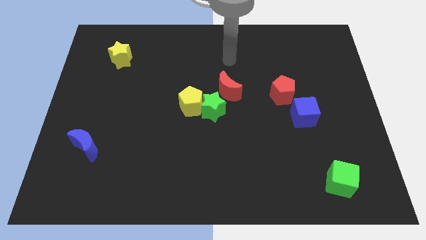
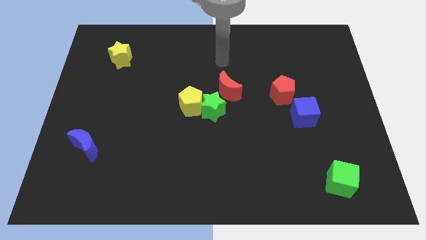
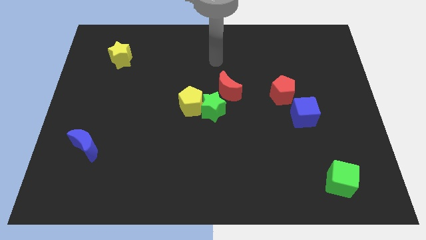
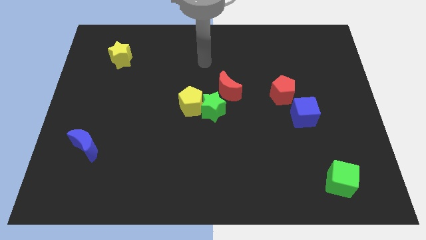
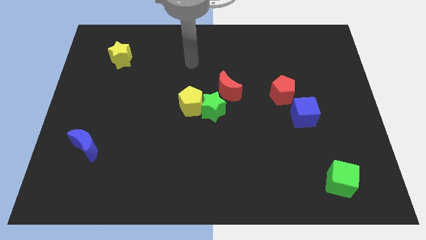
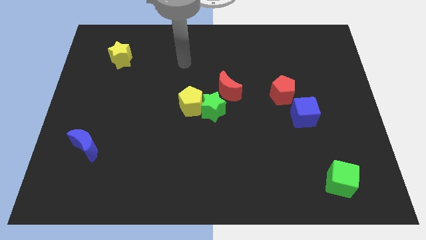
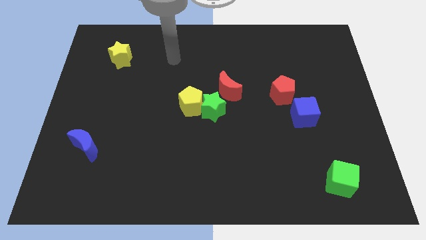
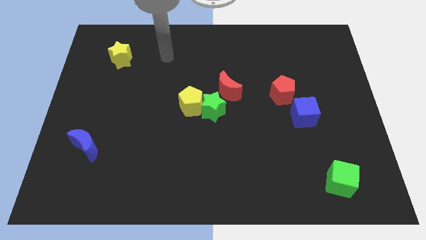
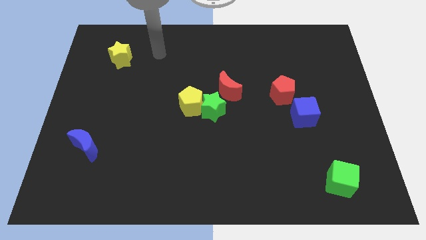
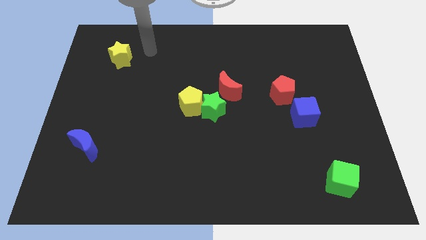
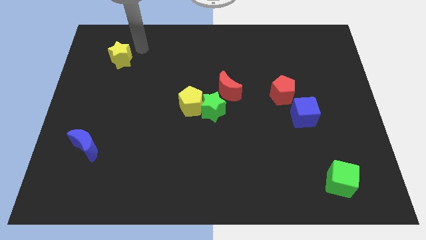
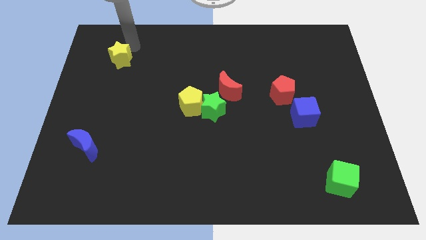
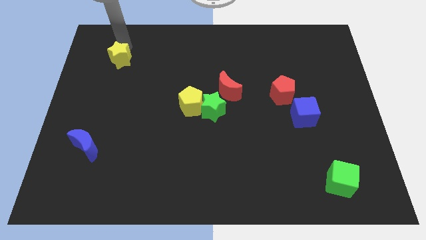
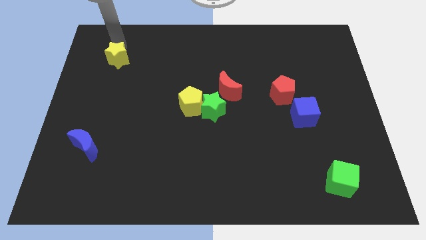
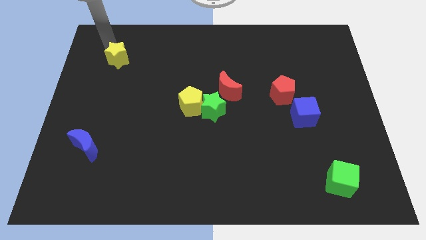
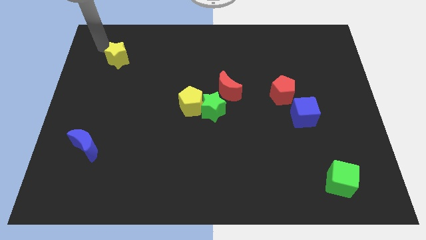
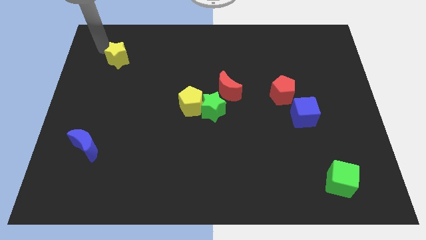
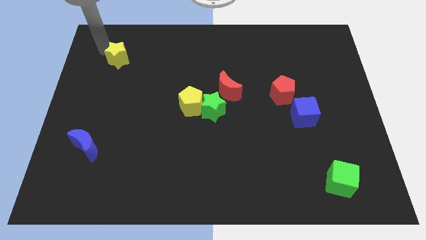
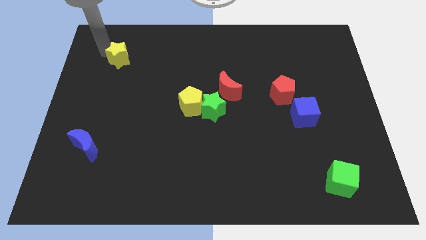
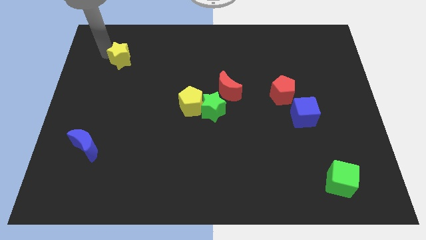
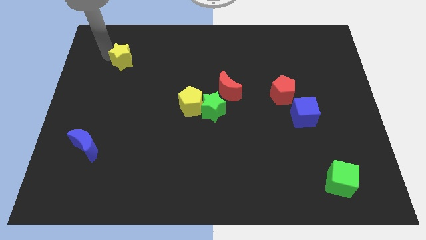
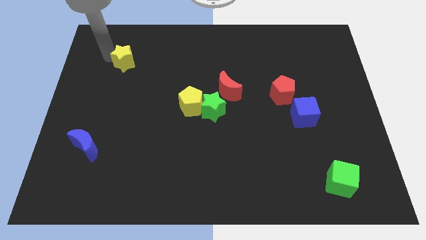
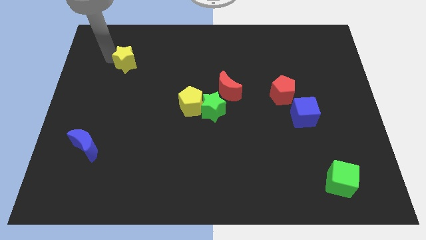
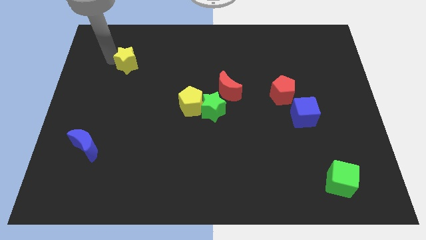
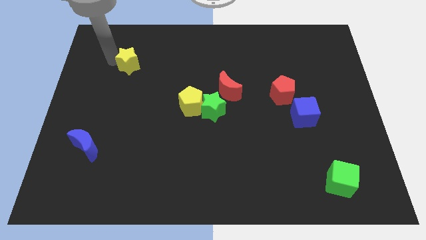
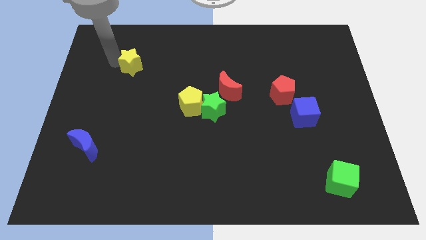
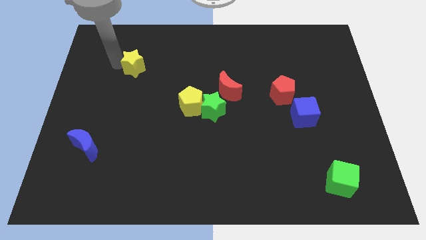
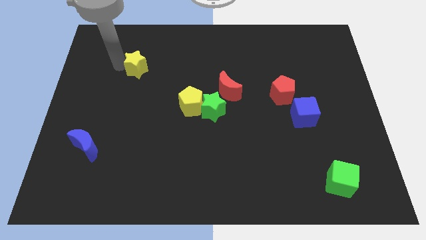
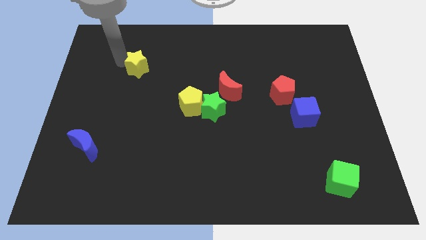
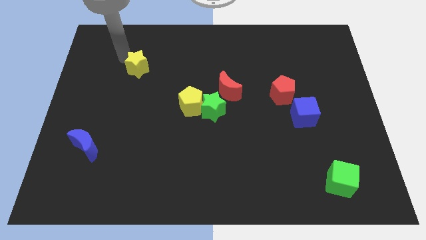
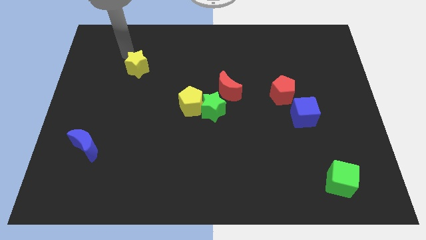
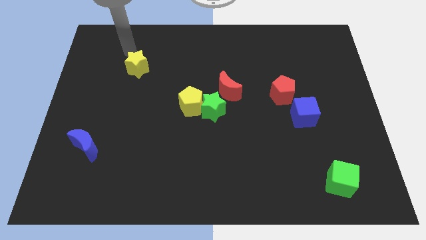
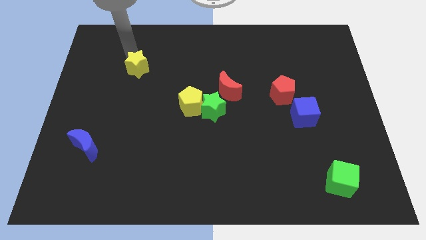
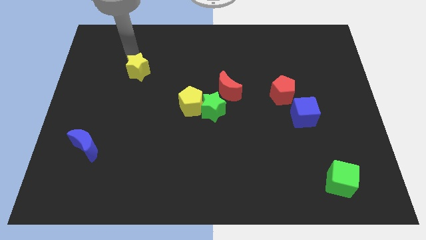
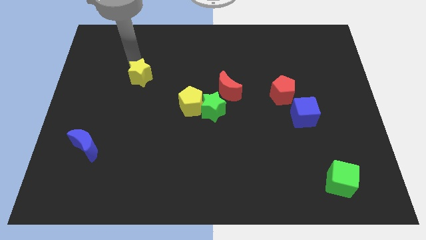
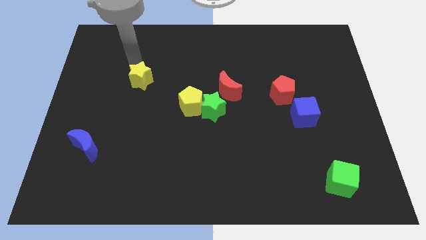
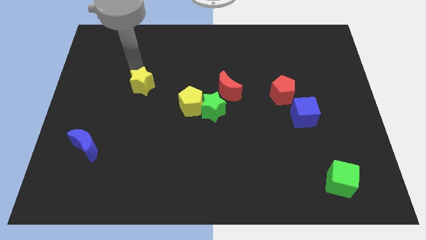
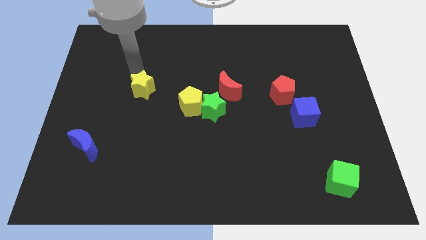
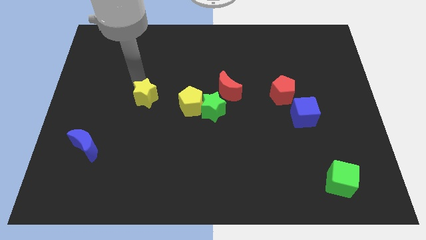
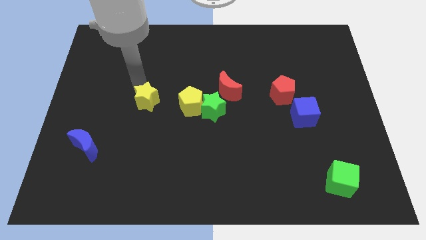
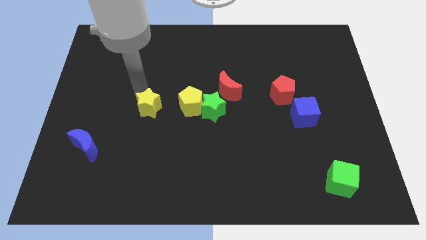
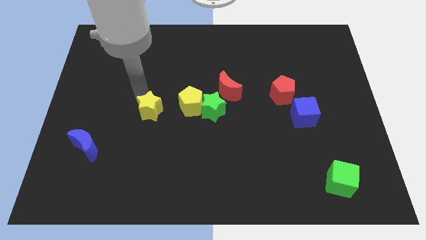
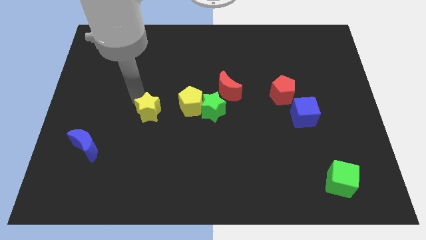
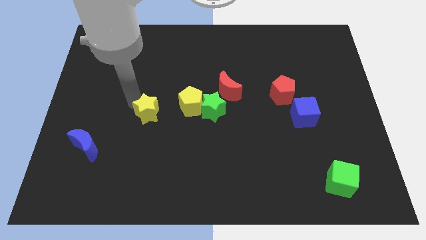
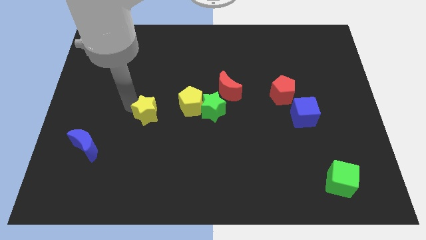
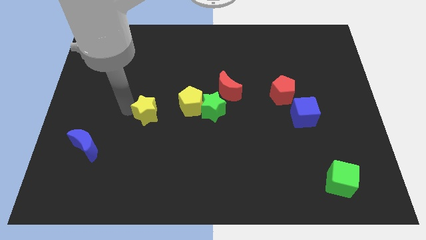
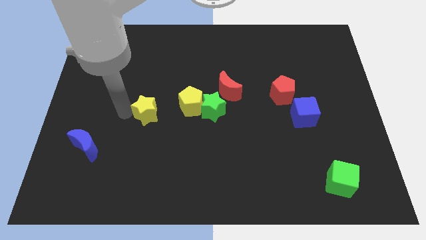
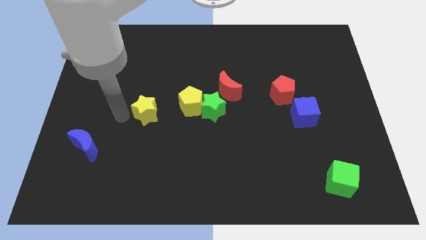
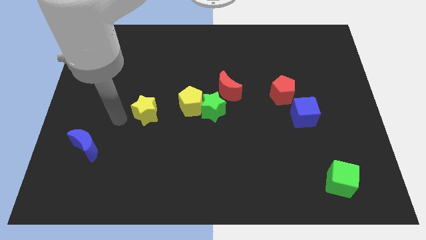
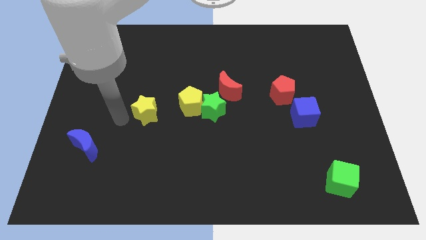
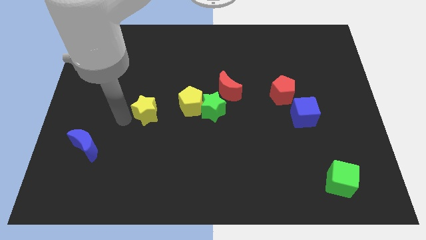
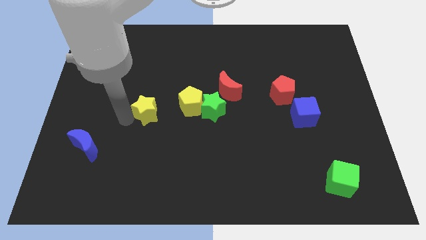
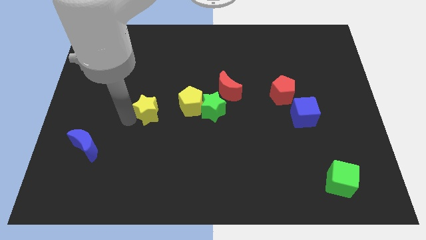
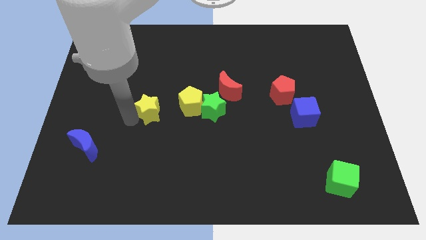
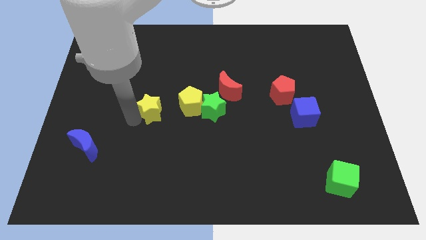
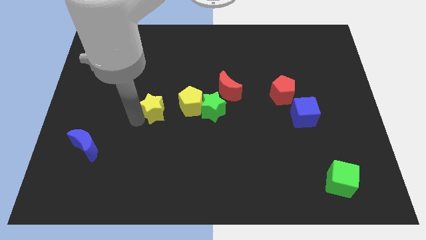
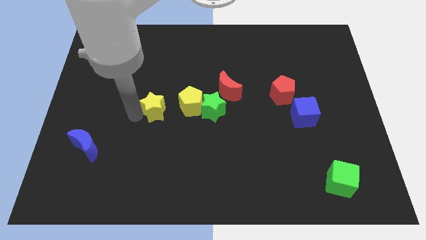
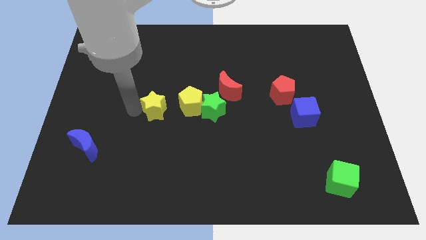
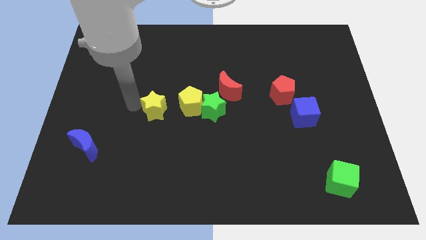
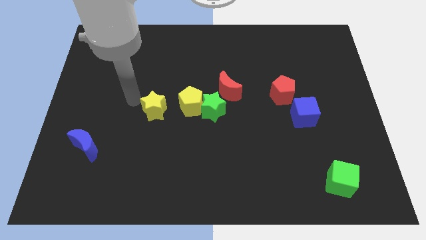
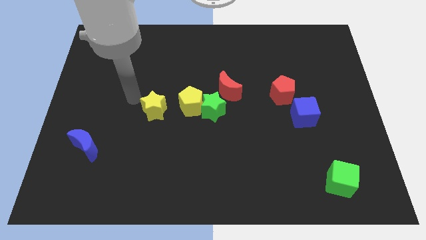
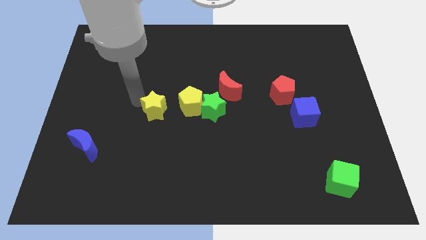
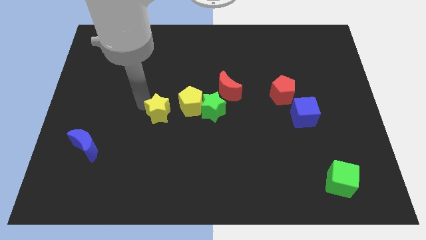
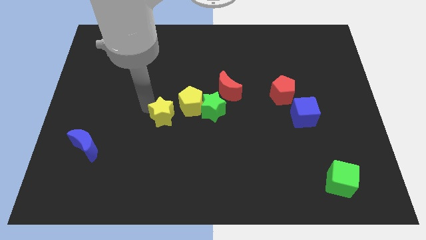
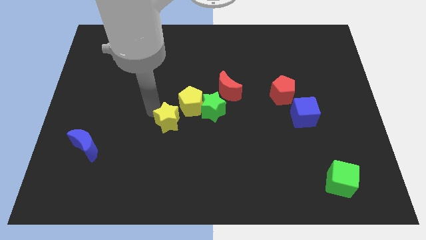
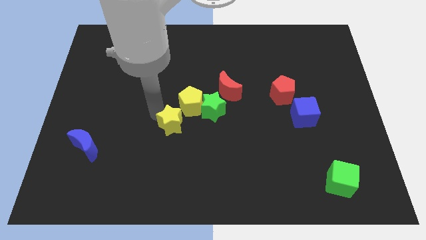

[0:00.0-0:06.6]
push the yellow star to the bottom of the yellow pentagon

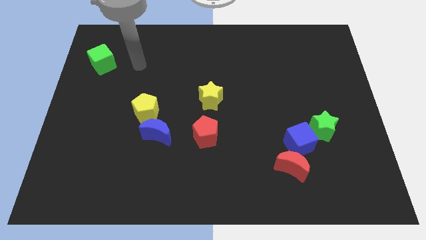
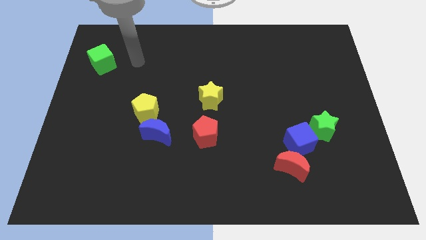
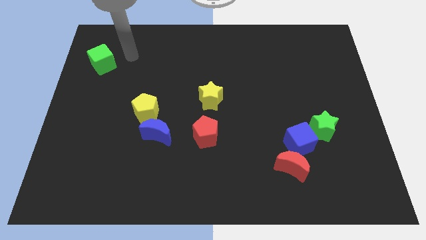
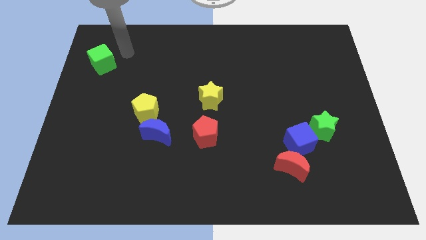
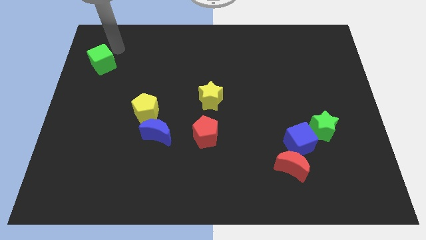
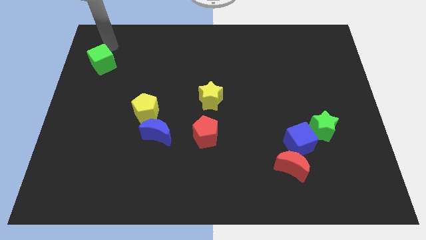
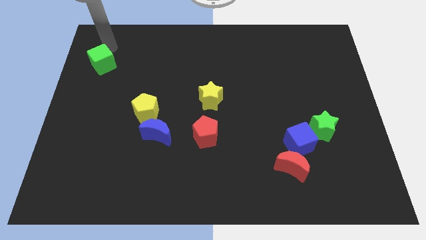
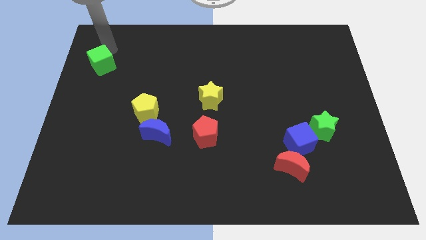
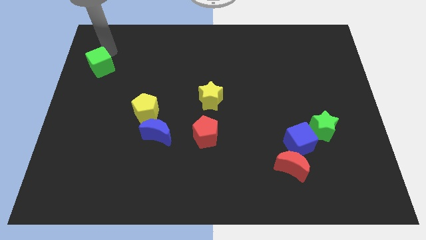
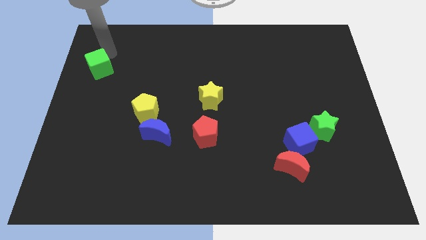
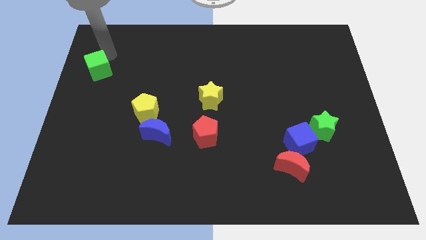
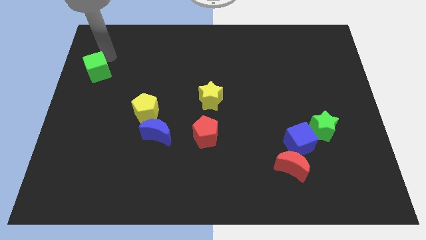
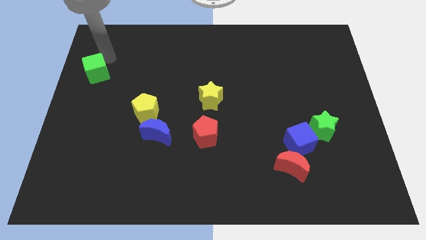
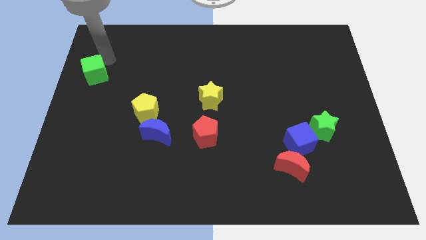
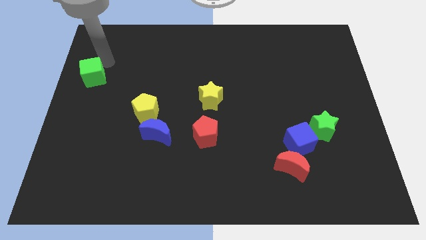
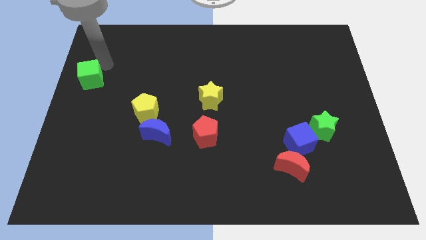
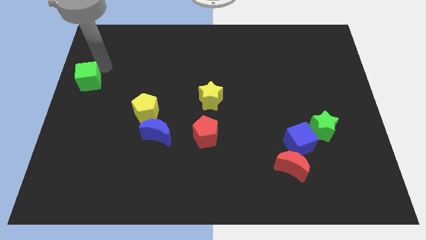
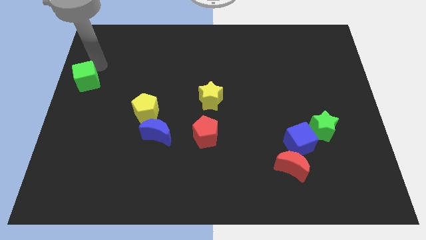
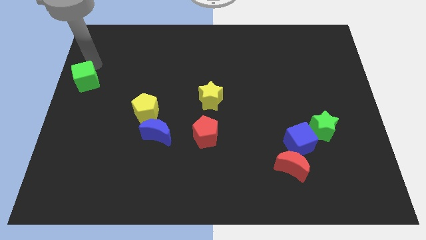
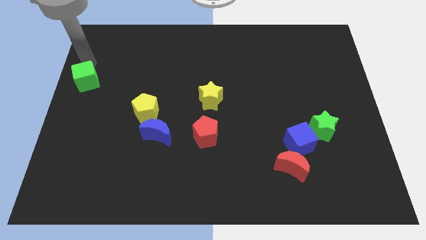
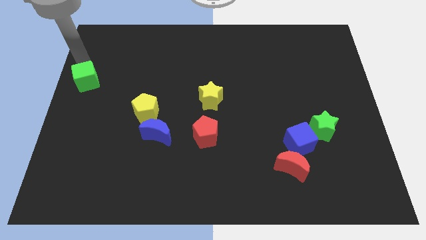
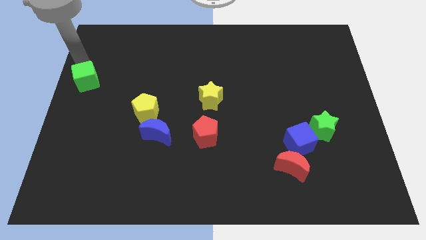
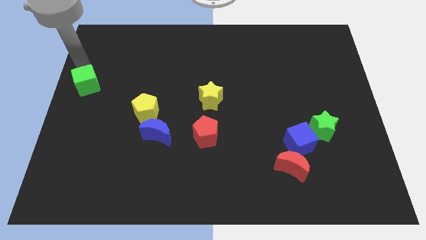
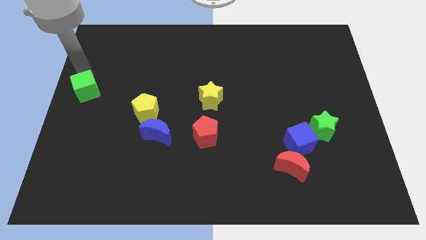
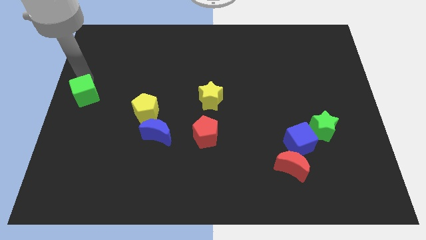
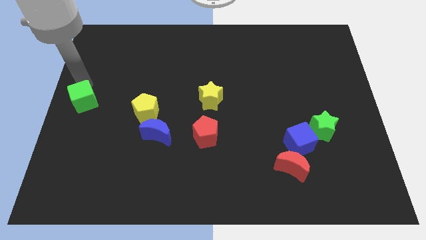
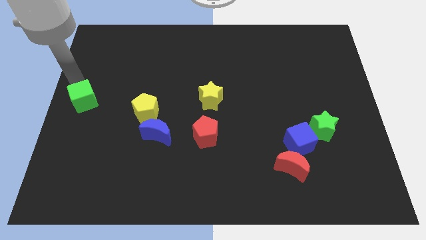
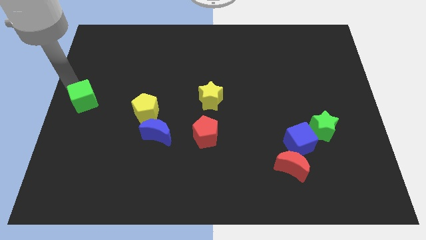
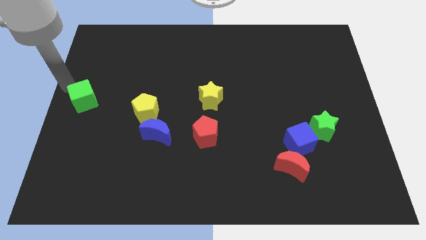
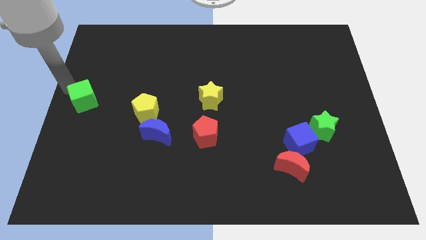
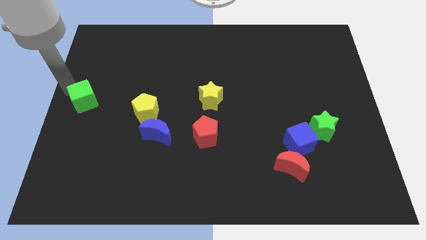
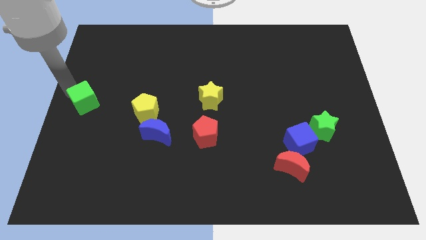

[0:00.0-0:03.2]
put the green cube to the left of the yellow pentagon
